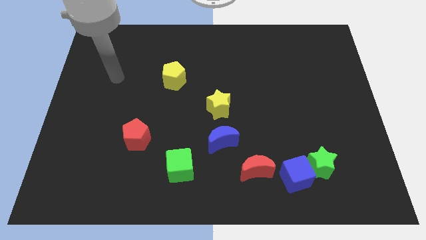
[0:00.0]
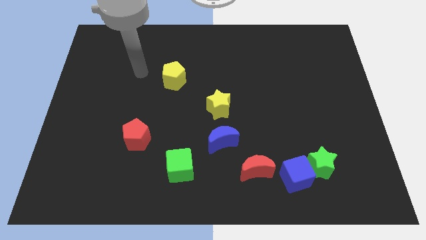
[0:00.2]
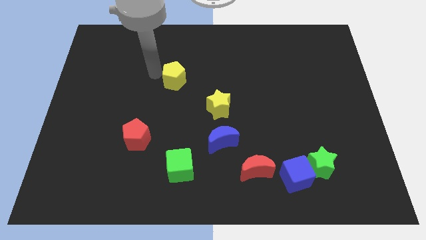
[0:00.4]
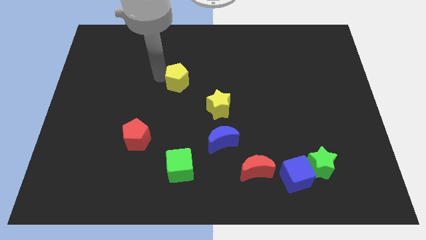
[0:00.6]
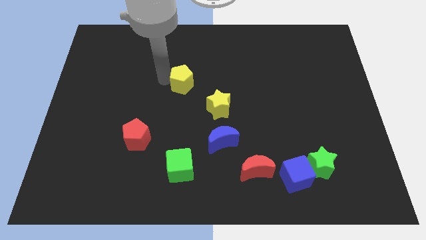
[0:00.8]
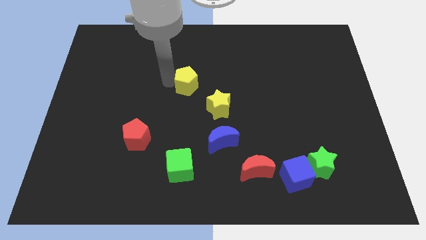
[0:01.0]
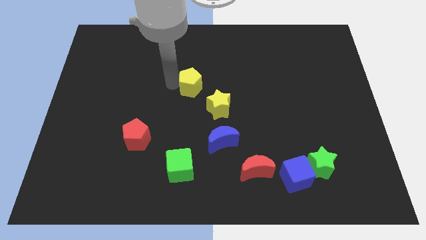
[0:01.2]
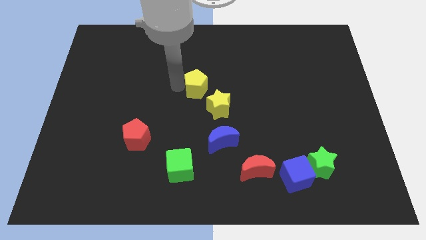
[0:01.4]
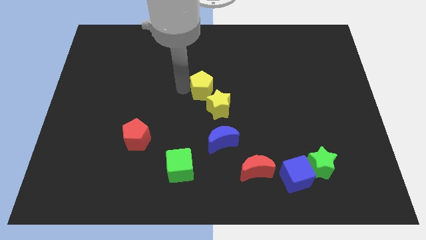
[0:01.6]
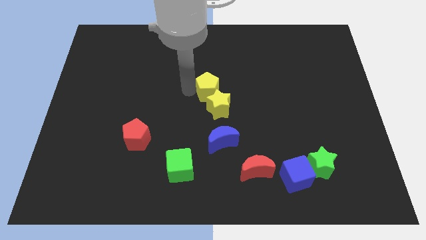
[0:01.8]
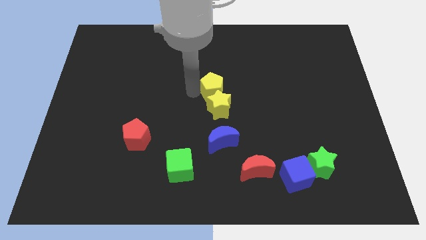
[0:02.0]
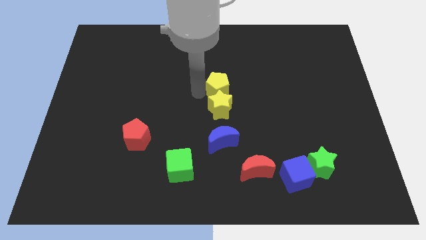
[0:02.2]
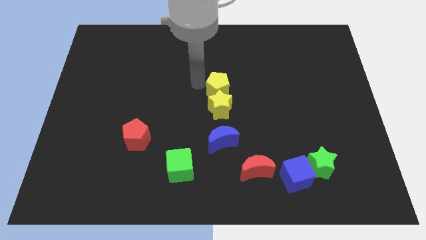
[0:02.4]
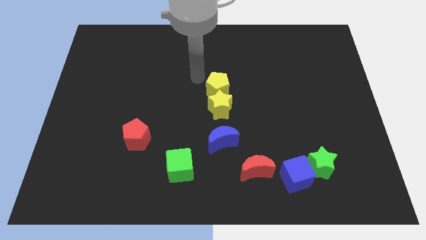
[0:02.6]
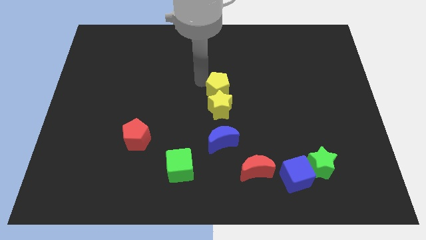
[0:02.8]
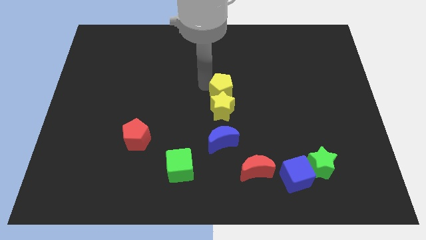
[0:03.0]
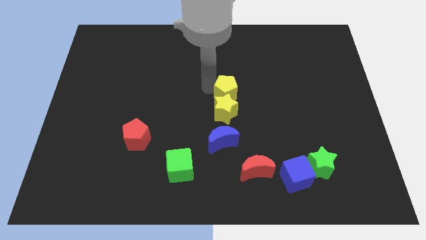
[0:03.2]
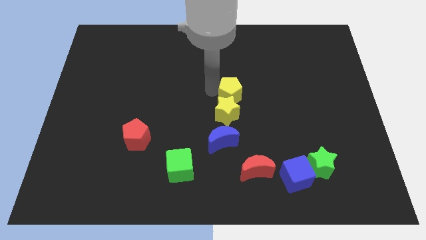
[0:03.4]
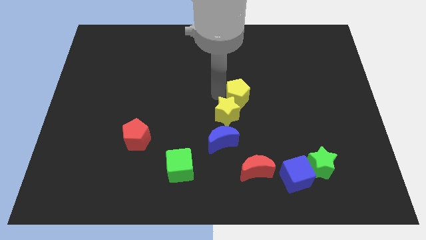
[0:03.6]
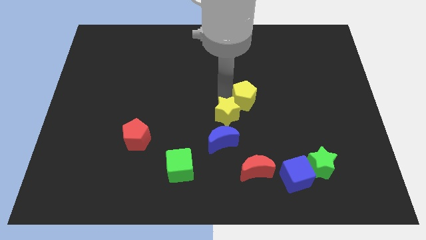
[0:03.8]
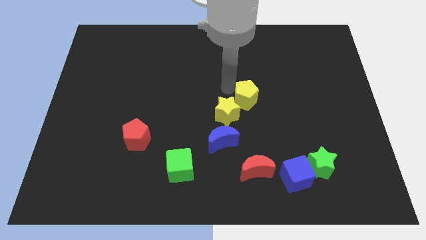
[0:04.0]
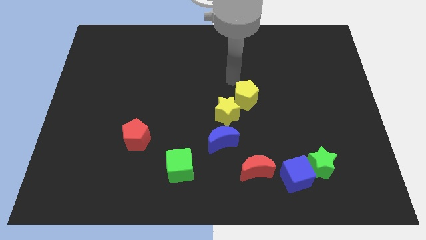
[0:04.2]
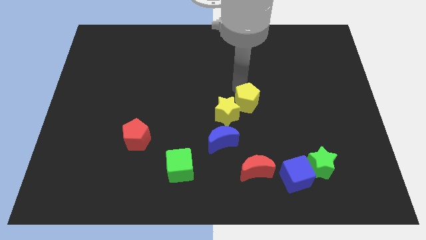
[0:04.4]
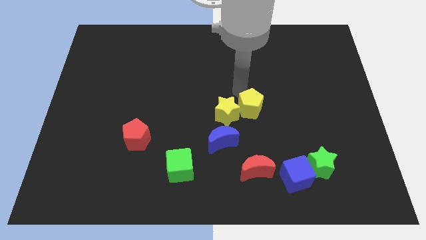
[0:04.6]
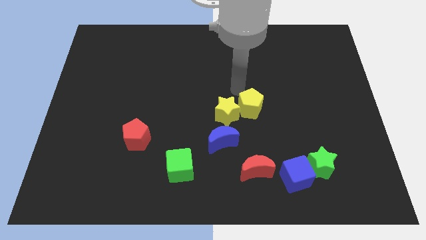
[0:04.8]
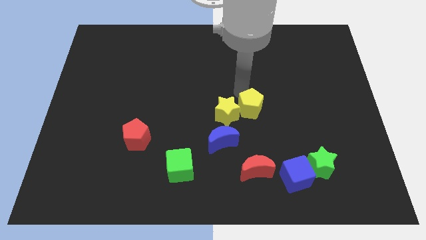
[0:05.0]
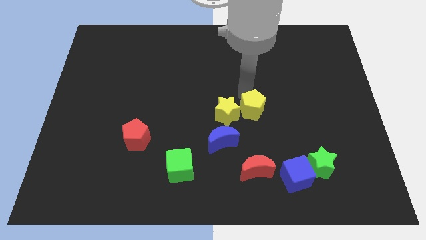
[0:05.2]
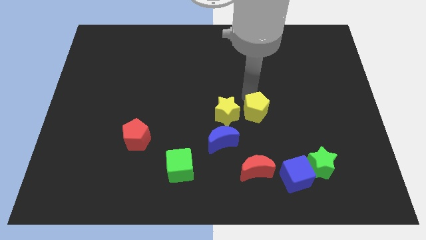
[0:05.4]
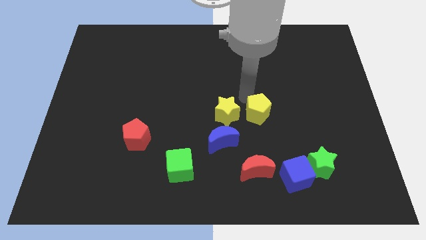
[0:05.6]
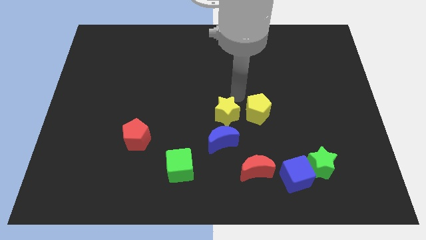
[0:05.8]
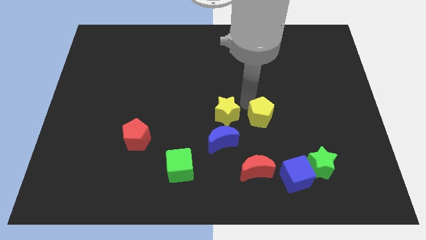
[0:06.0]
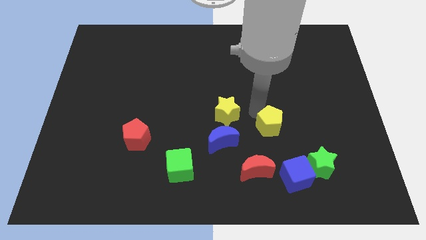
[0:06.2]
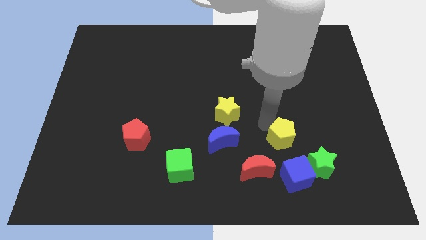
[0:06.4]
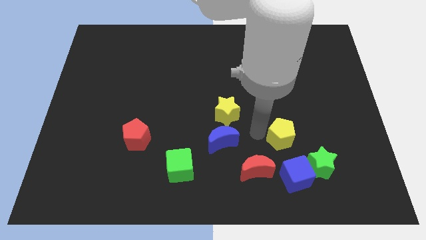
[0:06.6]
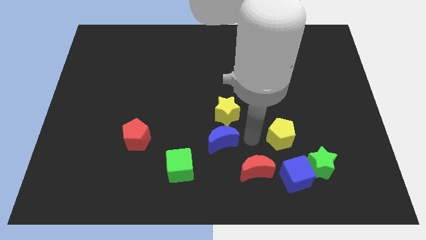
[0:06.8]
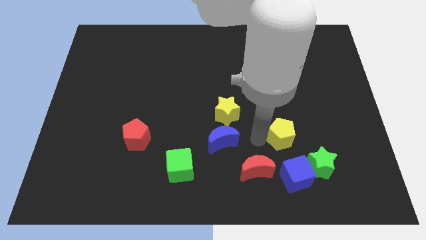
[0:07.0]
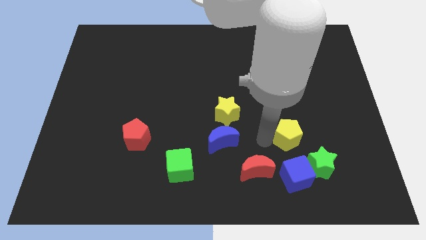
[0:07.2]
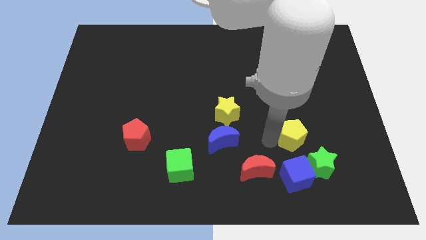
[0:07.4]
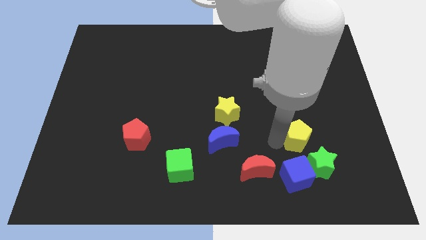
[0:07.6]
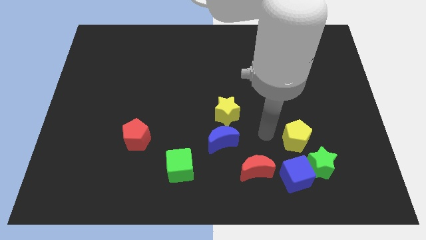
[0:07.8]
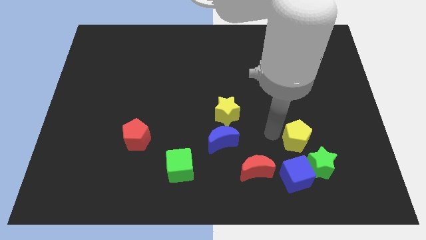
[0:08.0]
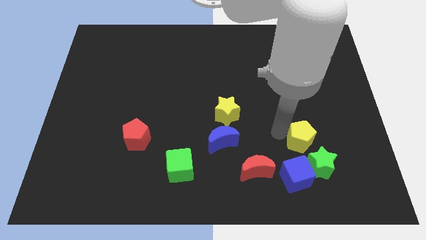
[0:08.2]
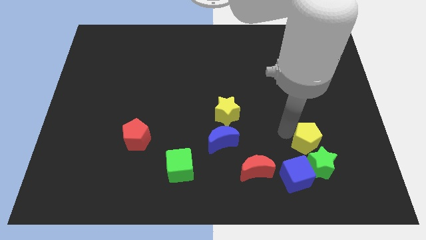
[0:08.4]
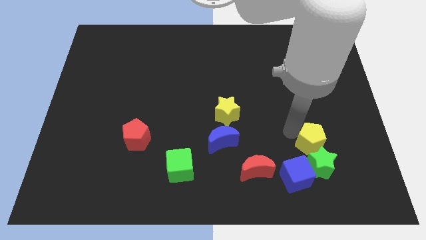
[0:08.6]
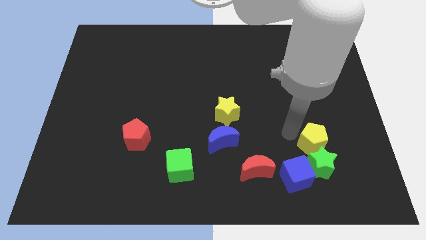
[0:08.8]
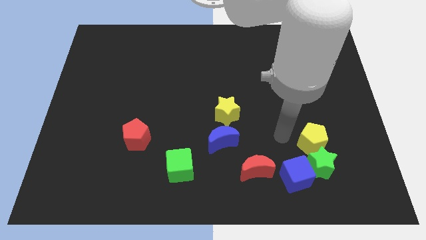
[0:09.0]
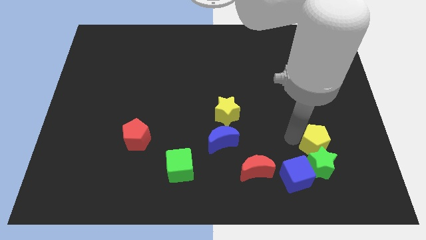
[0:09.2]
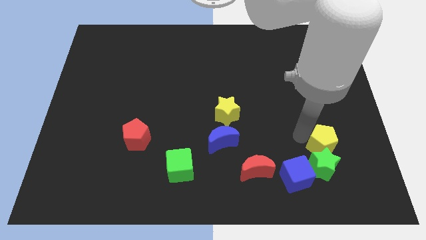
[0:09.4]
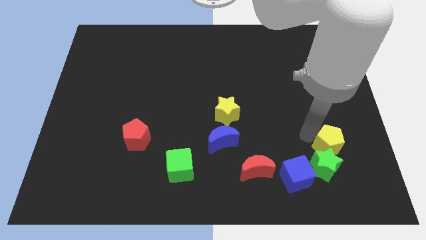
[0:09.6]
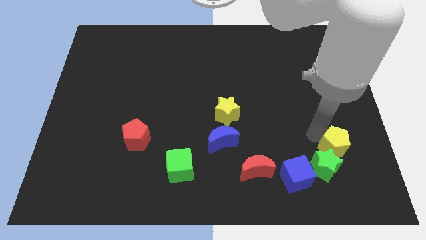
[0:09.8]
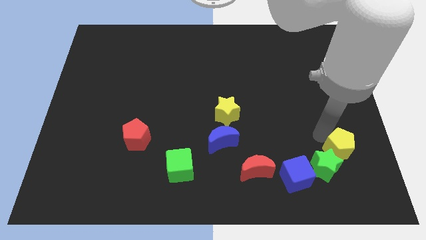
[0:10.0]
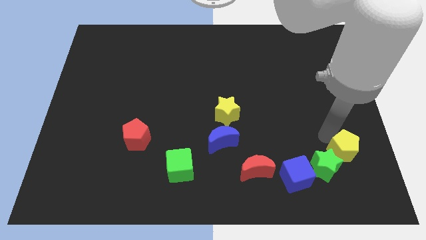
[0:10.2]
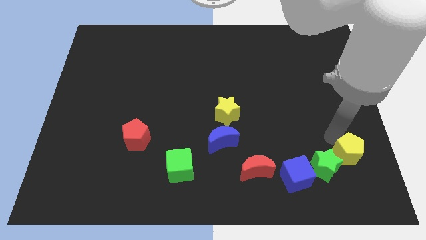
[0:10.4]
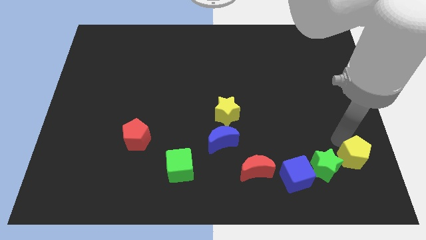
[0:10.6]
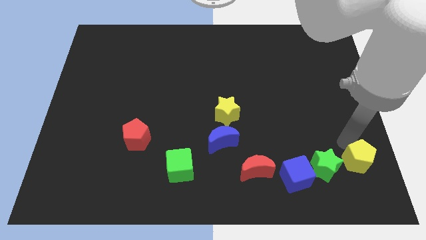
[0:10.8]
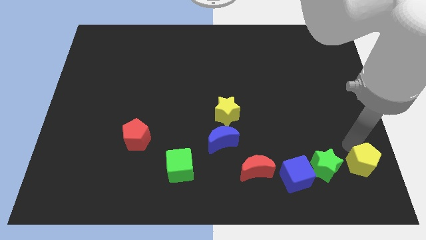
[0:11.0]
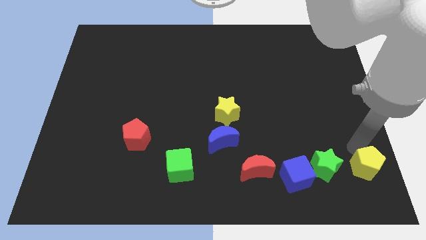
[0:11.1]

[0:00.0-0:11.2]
move the yellow pentagon to the bottom right of the board
